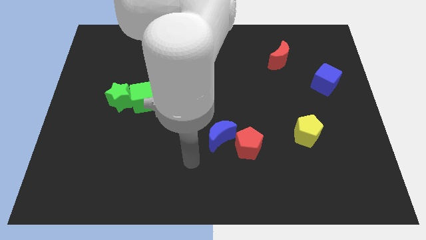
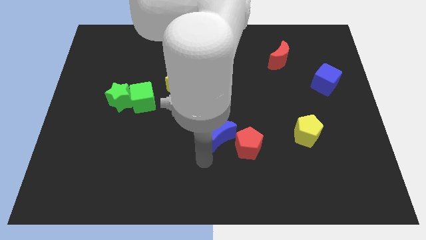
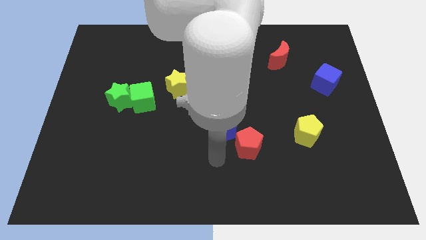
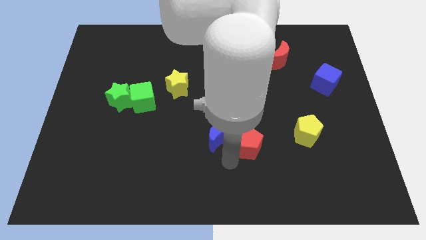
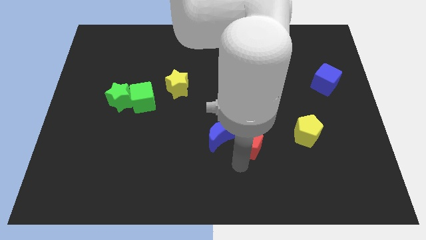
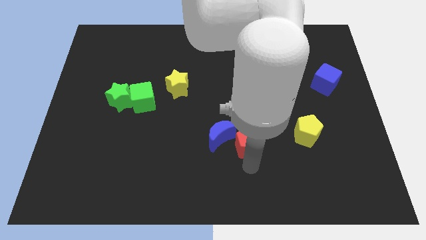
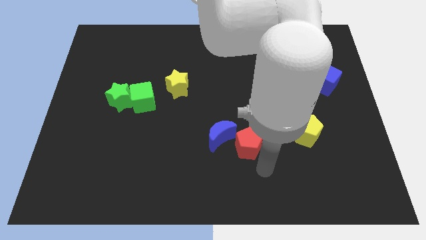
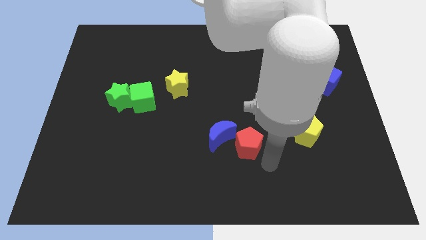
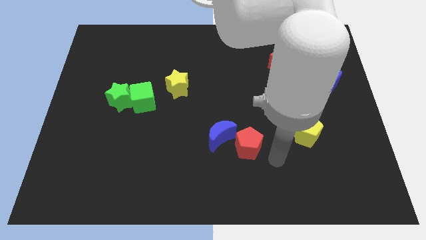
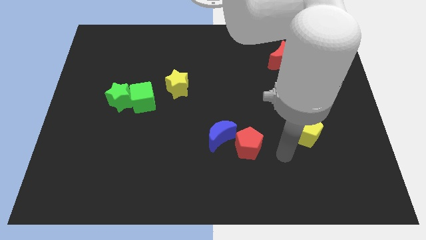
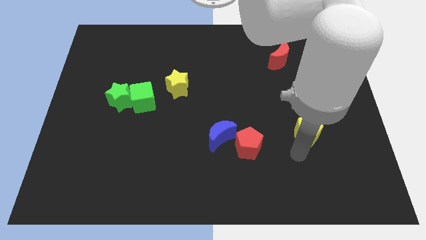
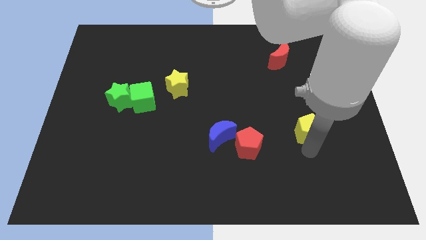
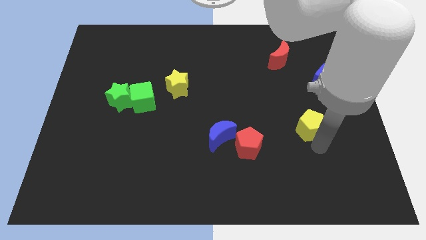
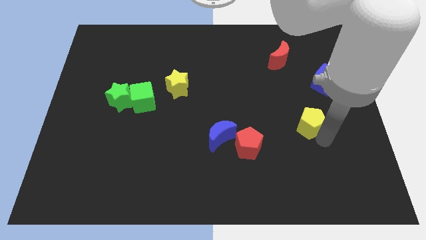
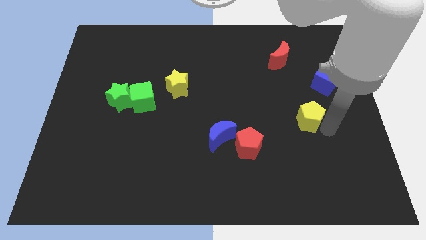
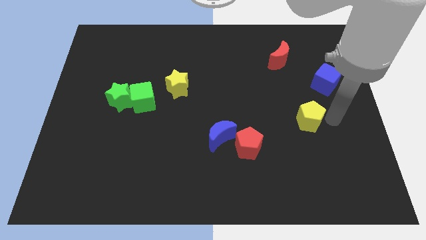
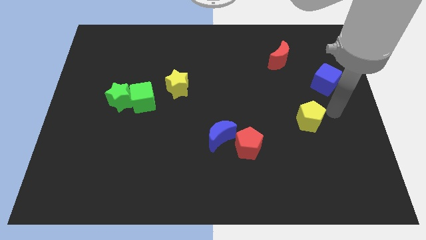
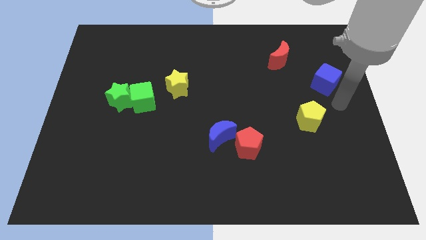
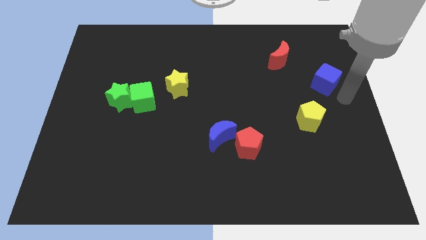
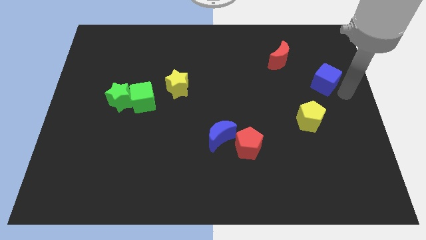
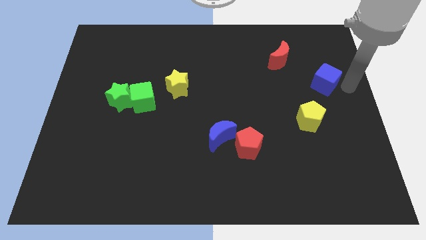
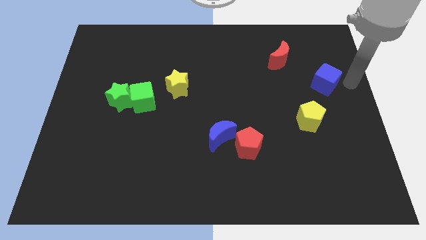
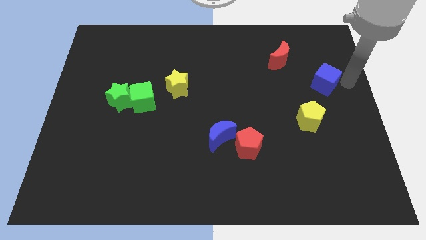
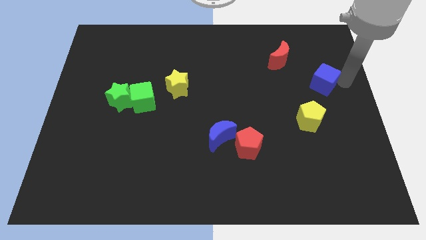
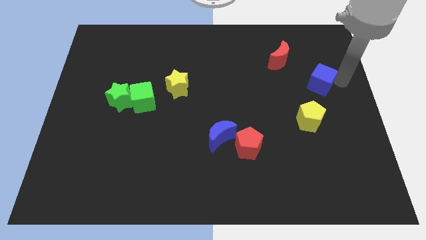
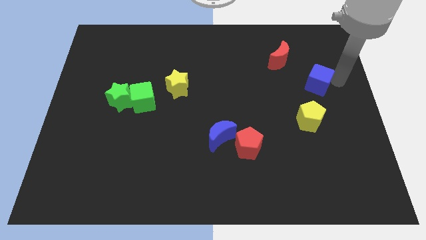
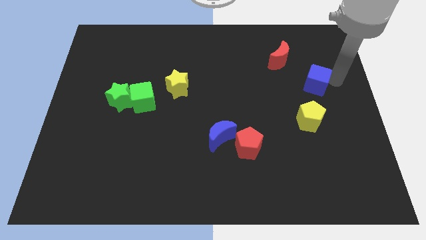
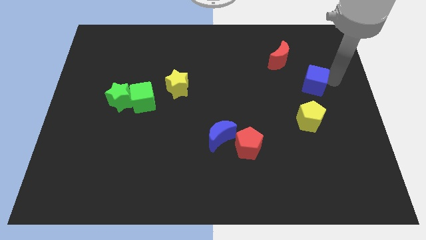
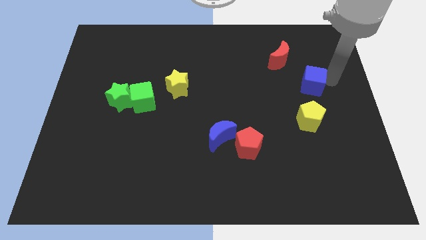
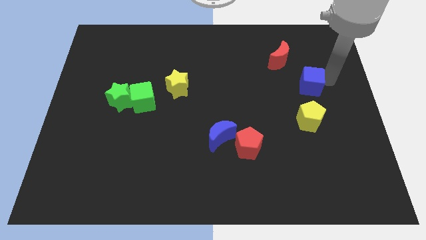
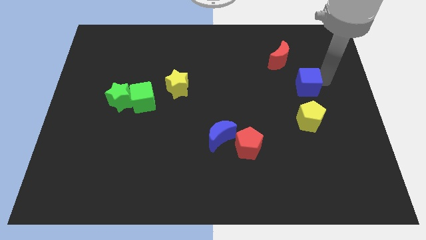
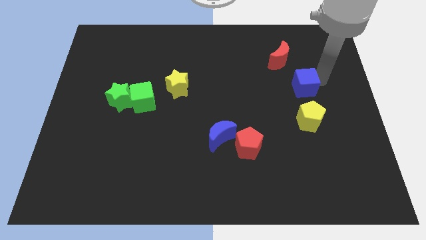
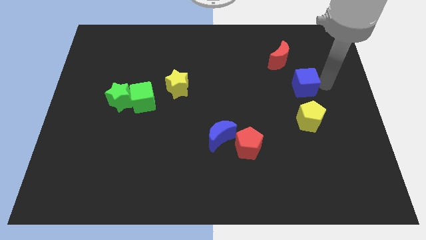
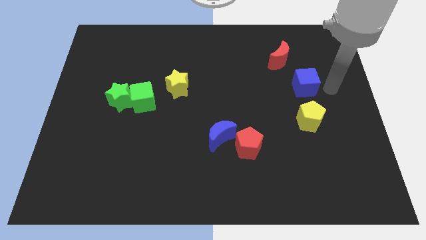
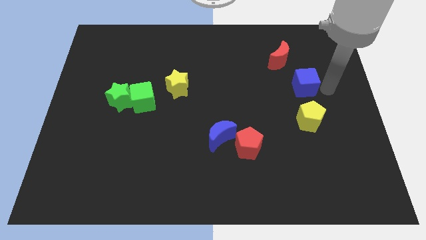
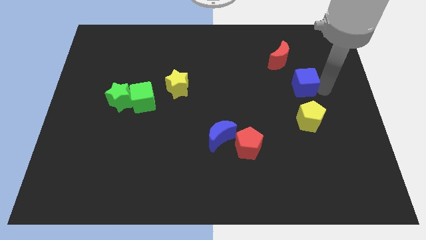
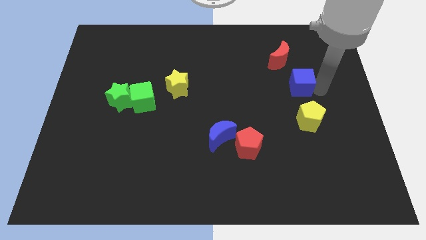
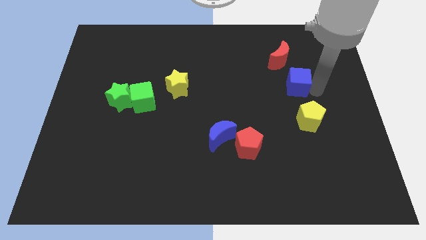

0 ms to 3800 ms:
slightly push the blue cube left

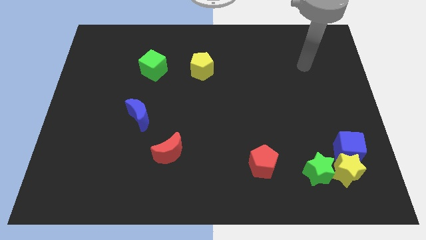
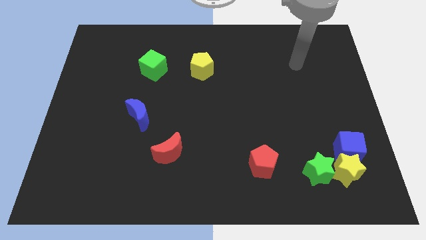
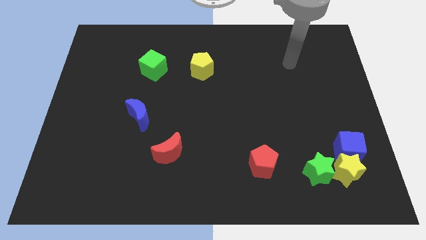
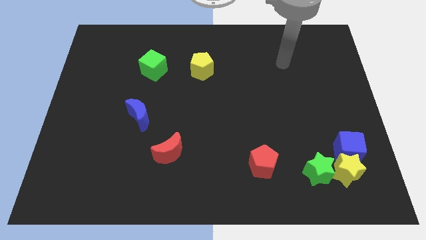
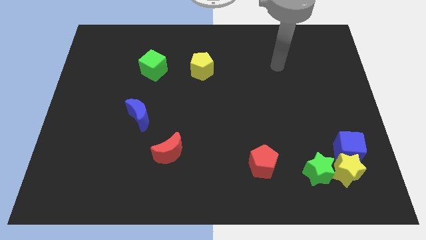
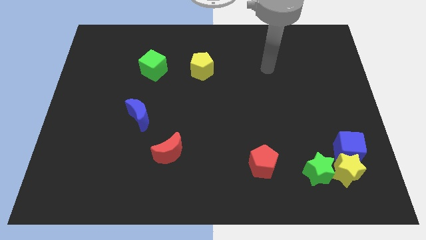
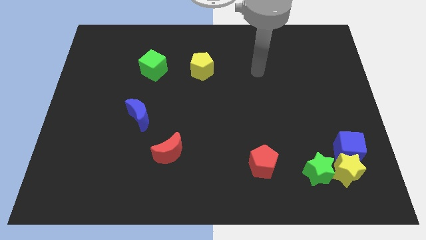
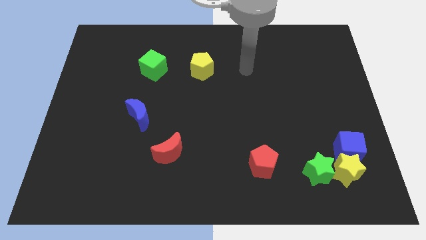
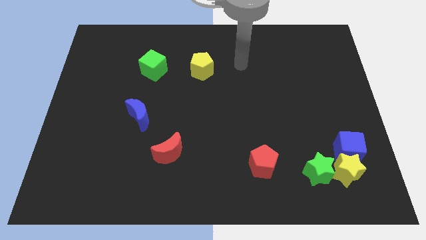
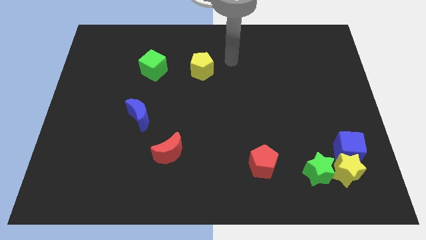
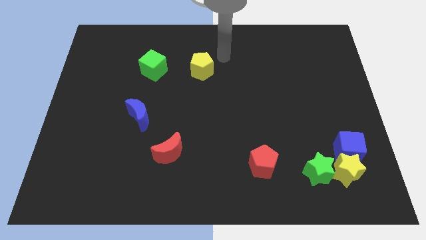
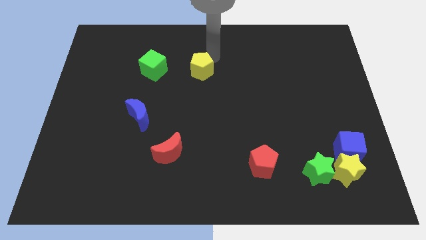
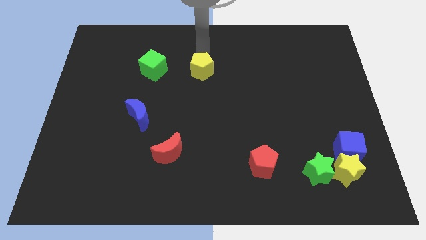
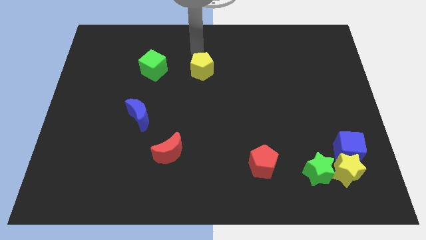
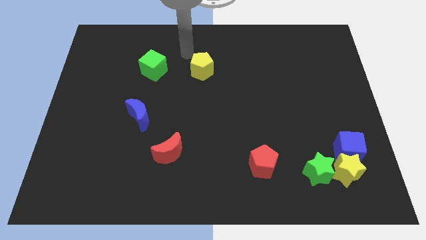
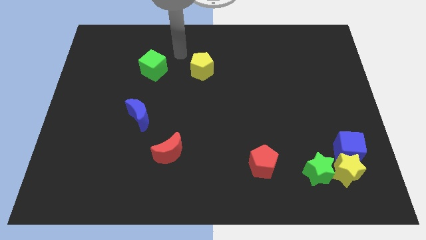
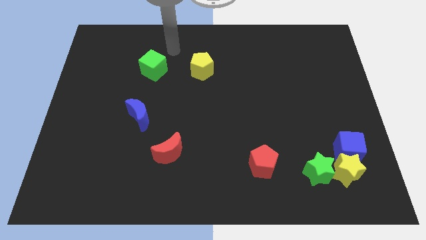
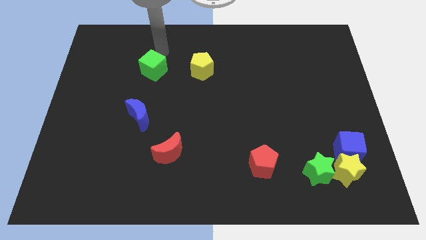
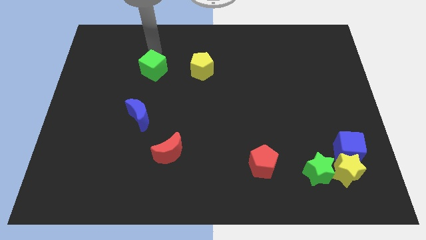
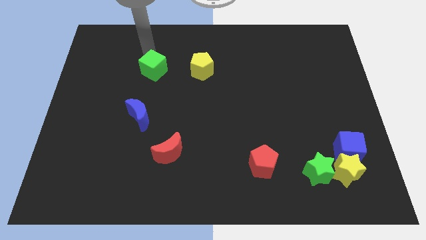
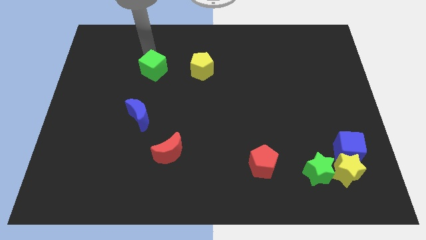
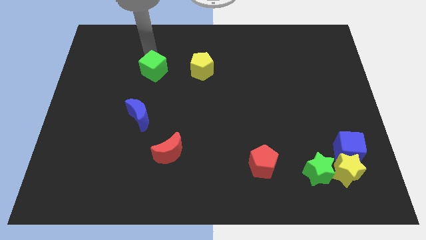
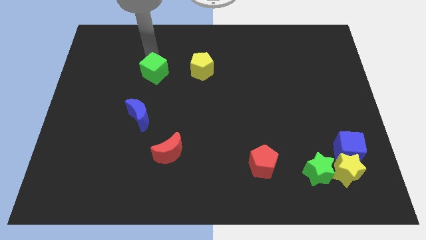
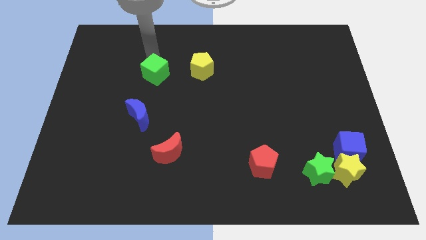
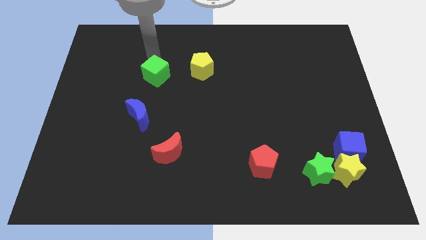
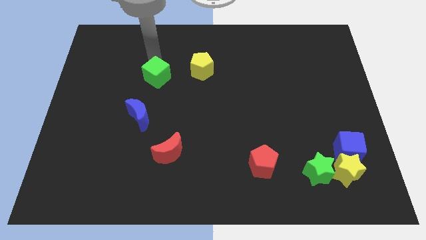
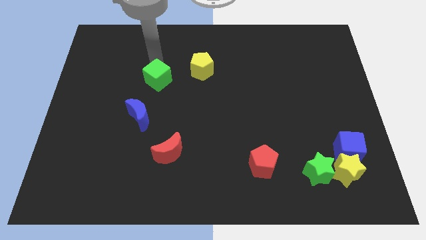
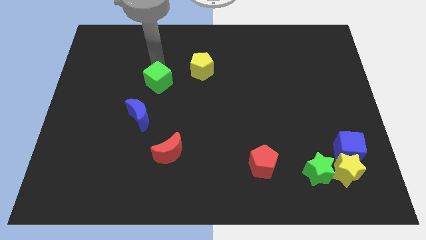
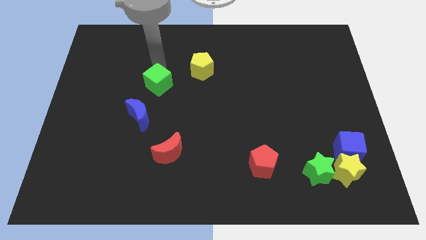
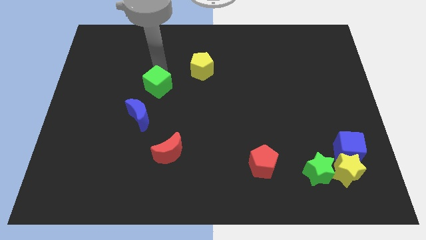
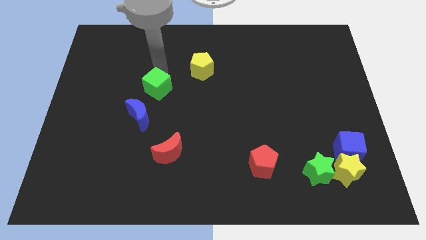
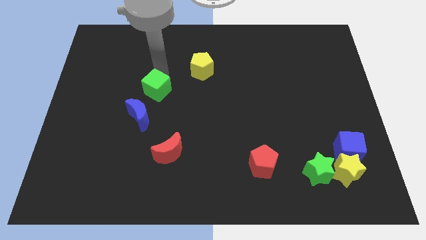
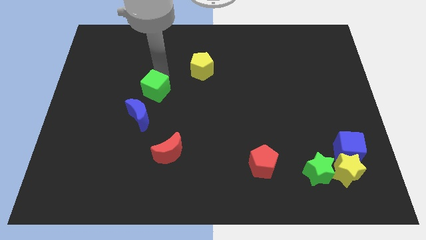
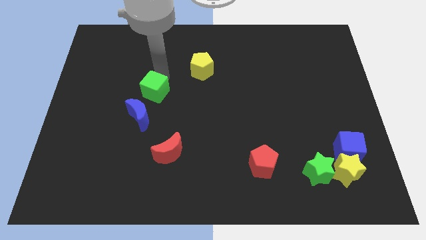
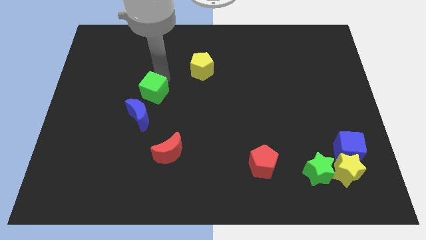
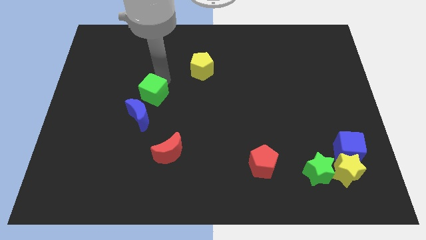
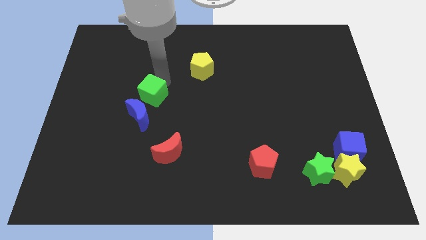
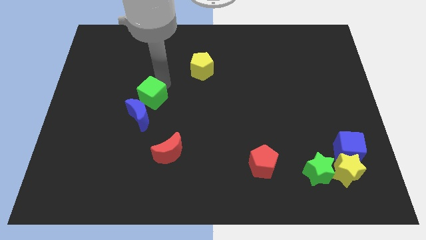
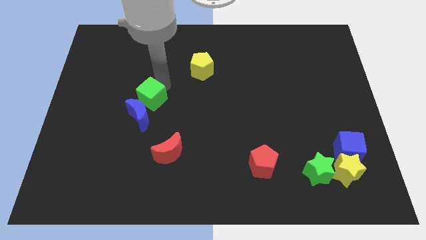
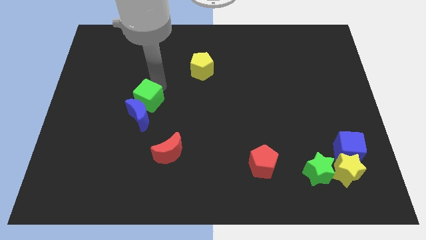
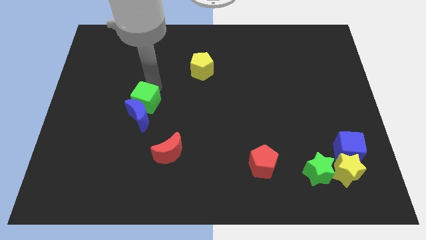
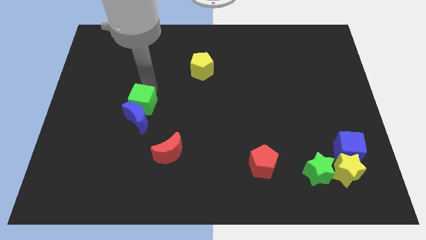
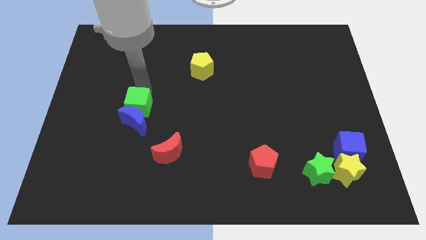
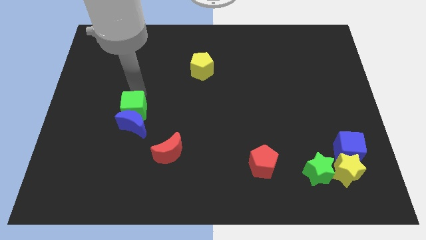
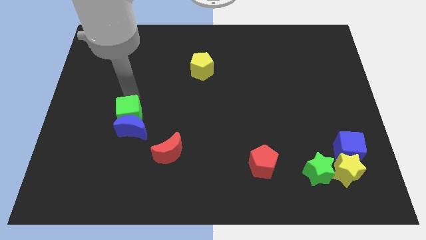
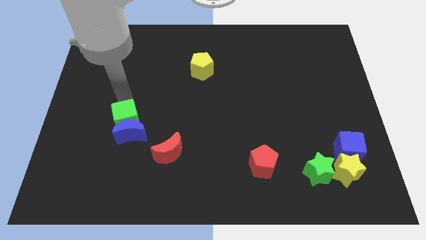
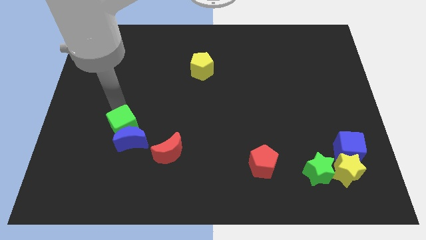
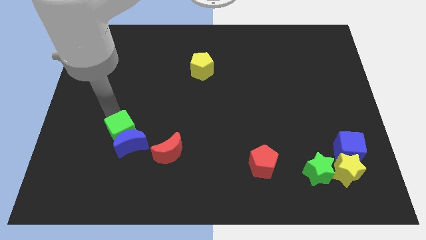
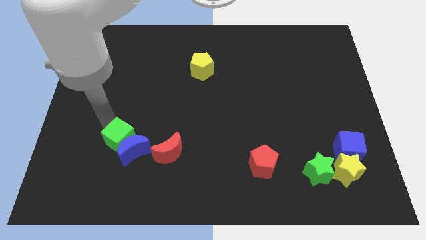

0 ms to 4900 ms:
move the green cube downwards
